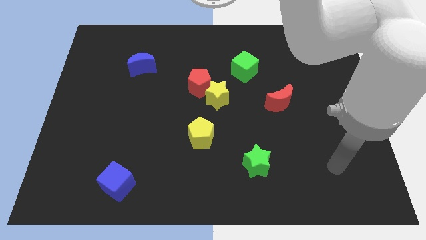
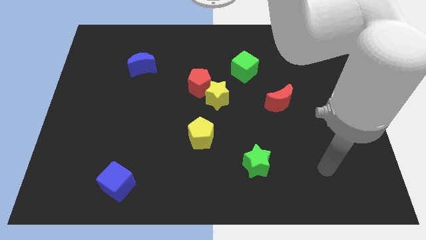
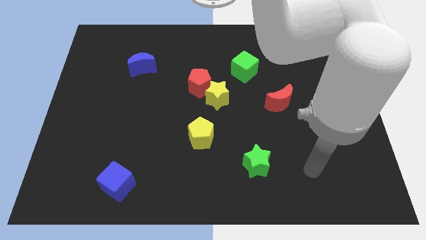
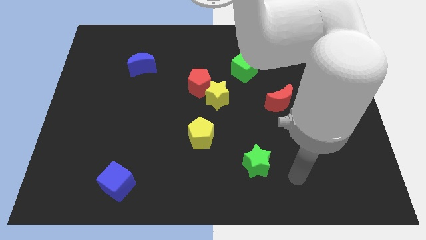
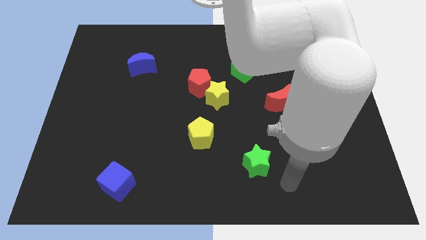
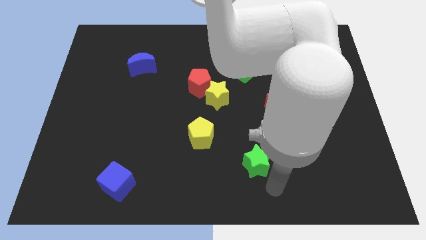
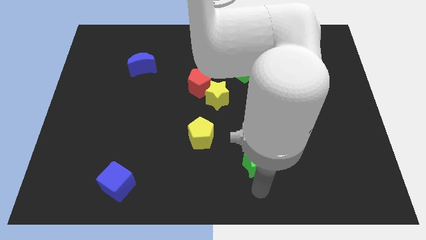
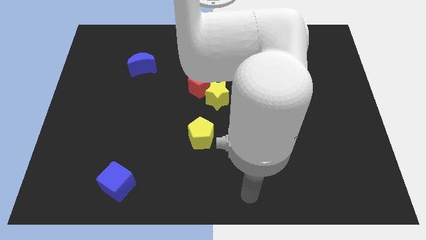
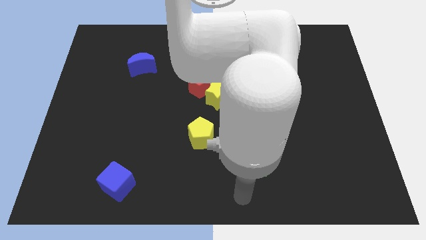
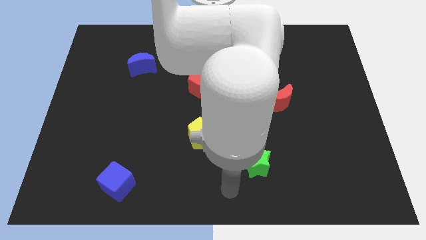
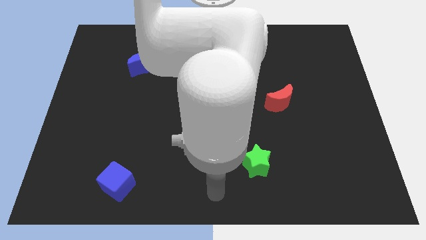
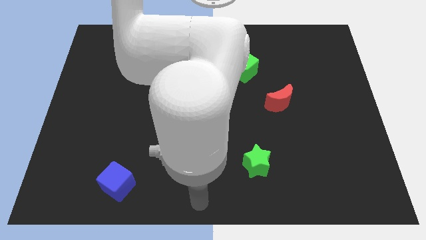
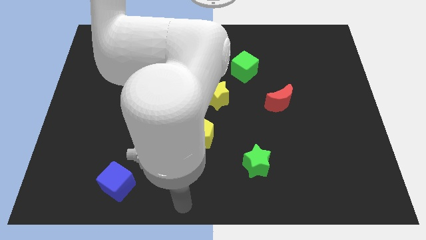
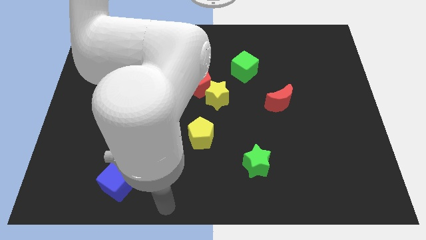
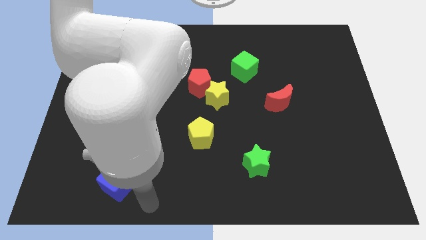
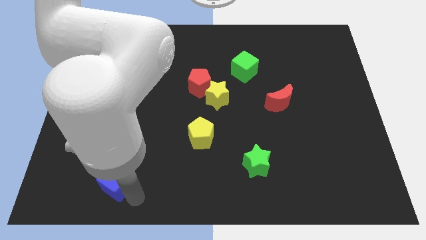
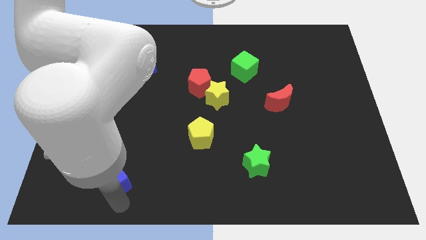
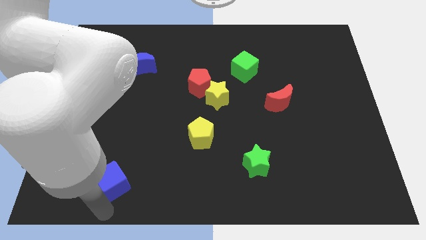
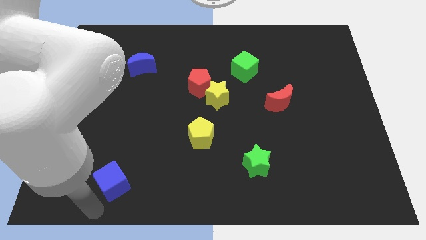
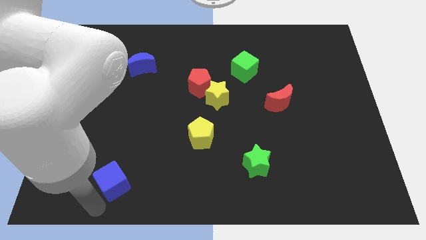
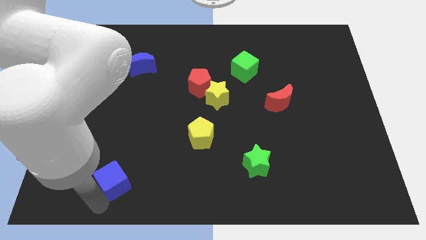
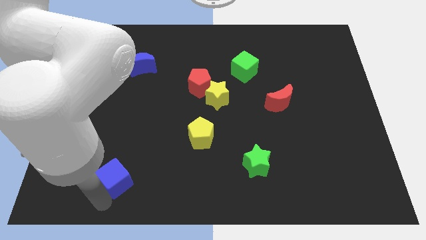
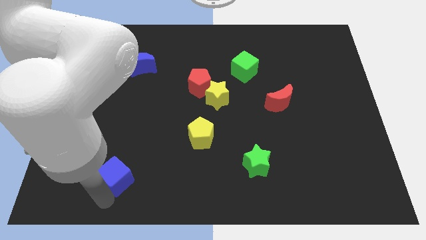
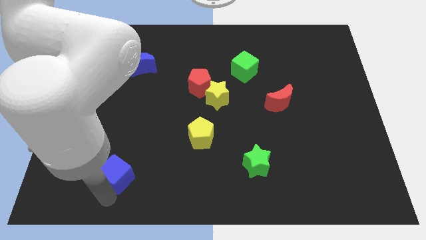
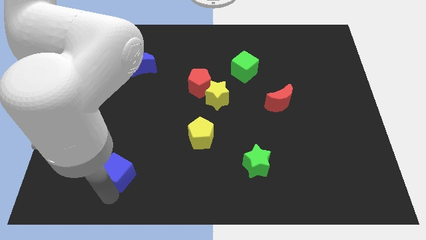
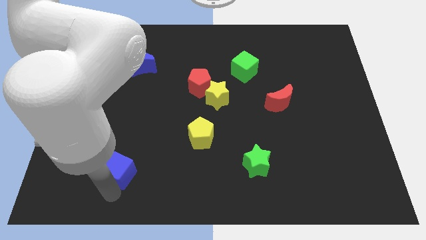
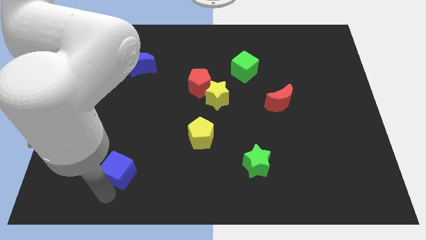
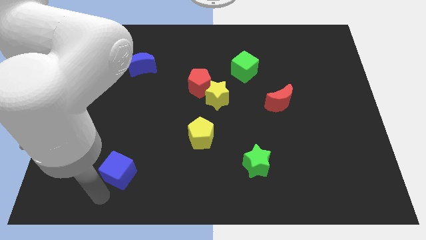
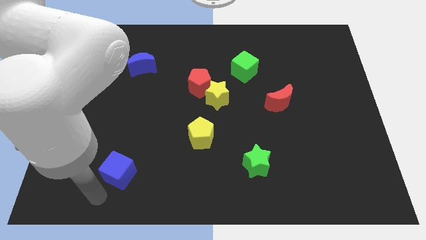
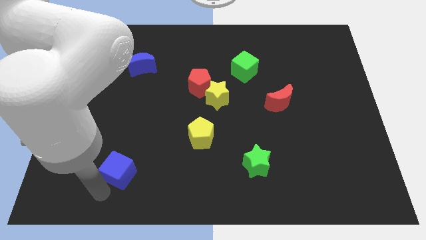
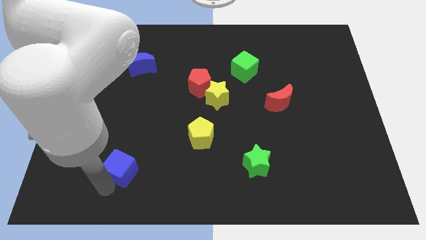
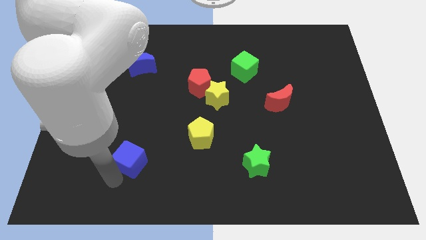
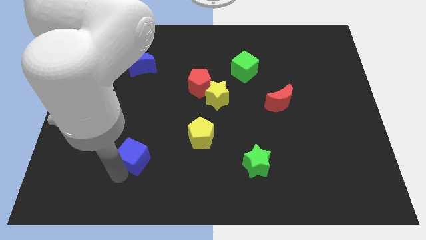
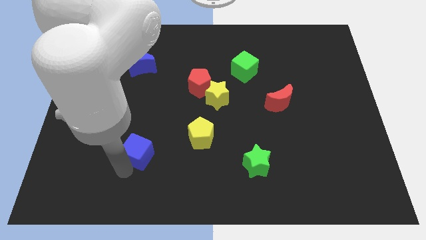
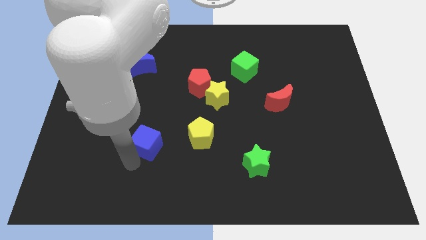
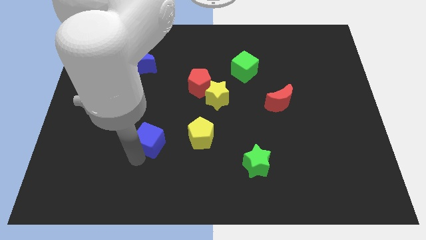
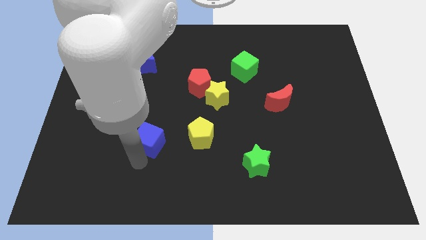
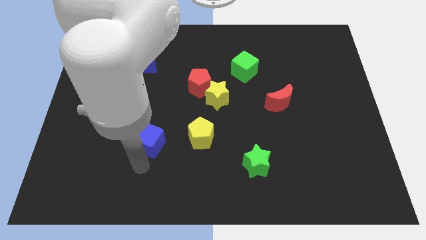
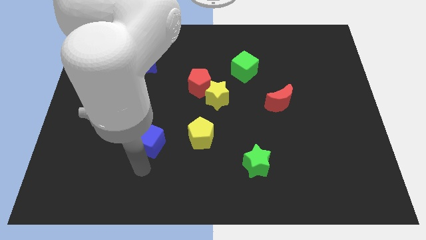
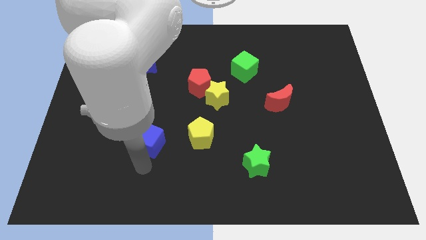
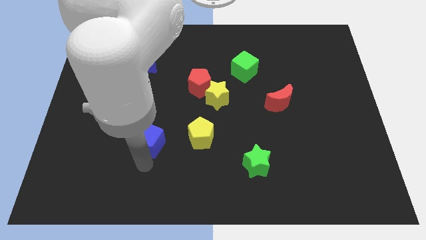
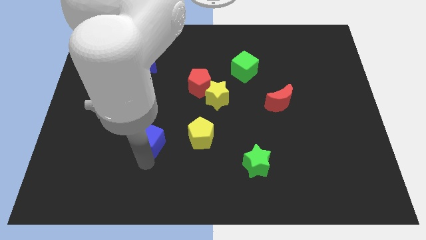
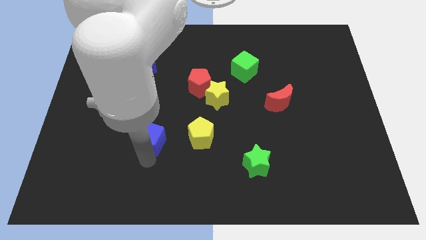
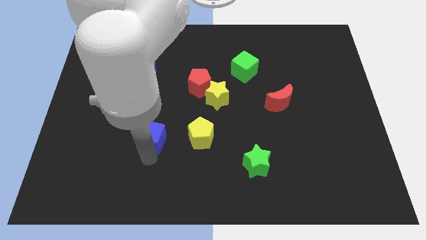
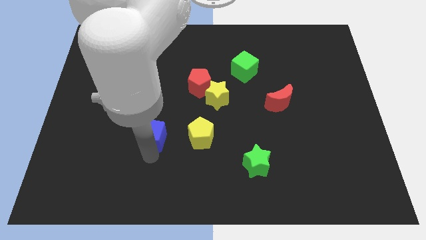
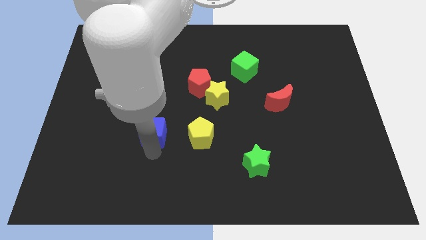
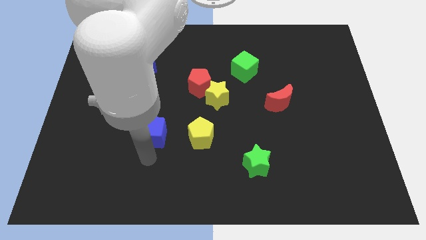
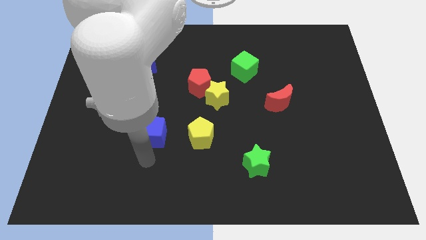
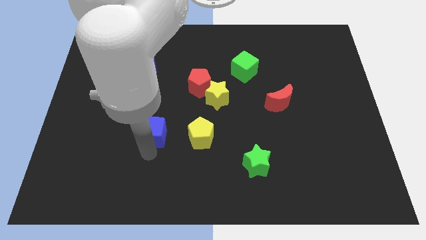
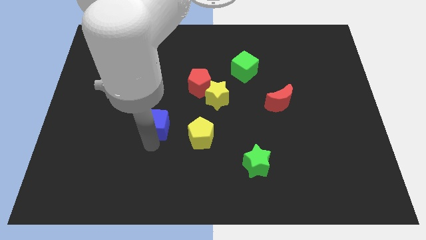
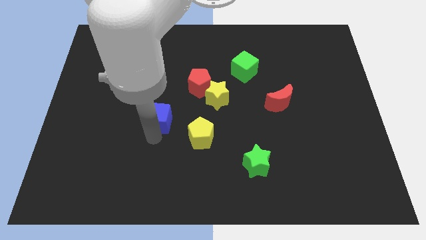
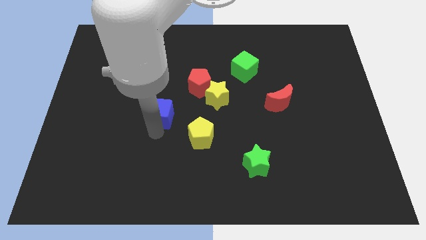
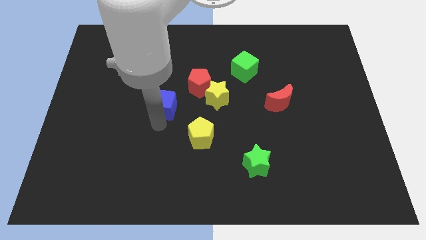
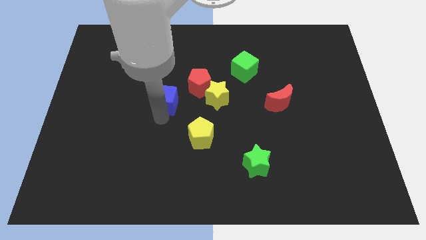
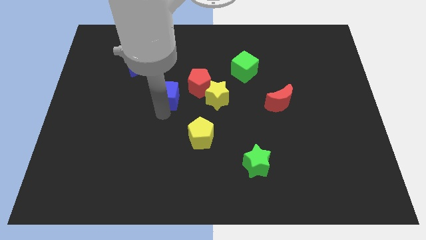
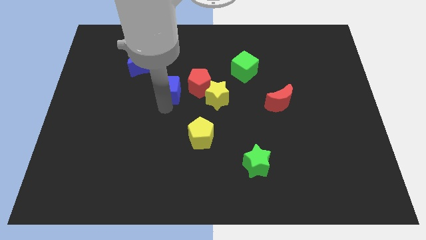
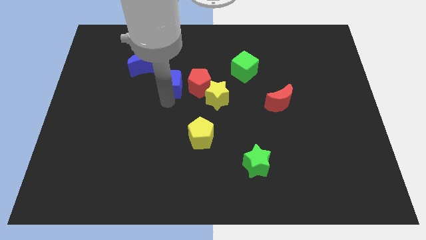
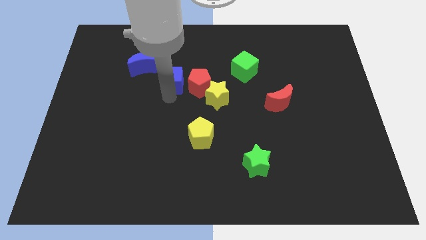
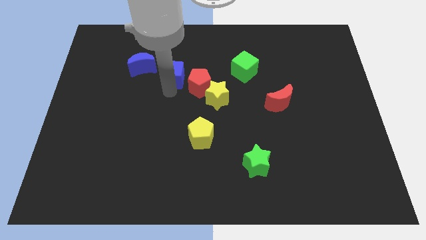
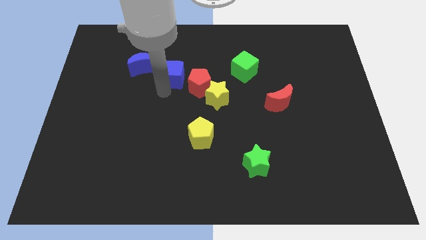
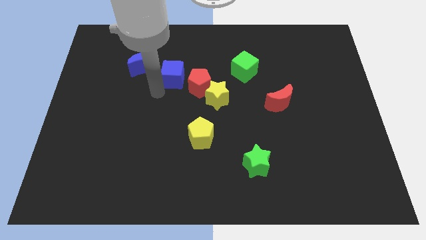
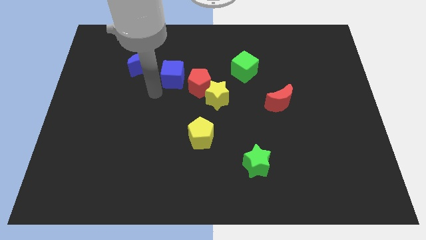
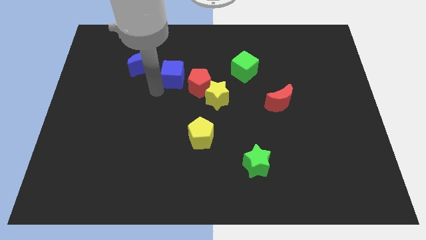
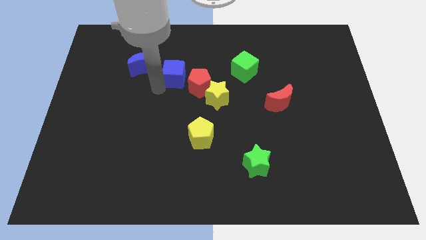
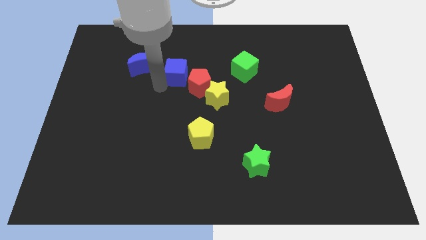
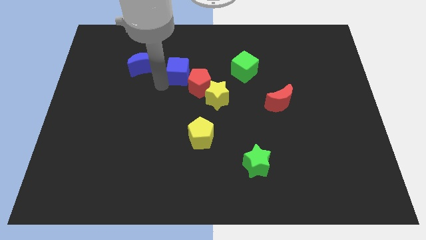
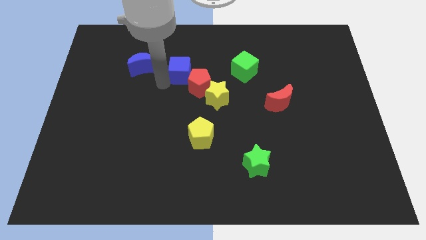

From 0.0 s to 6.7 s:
put the blue cube just left of the green cube

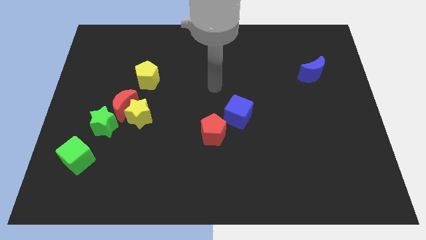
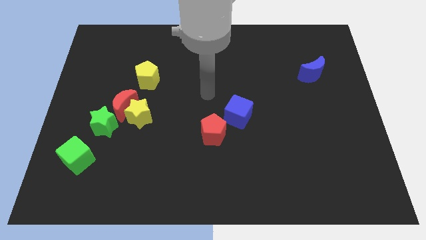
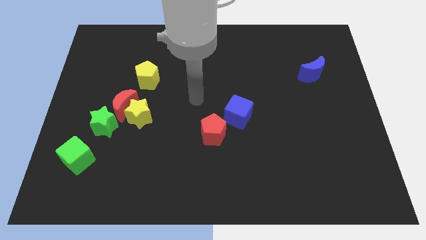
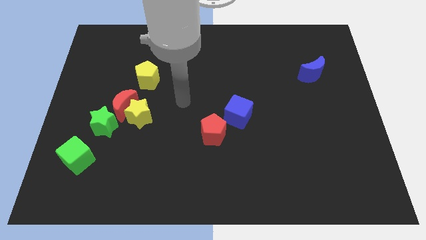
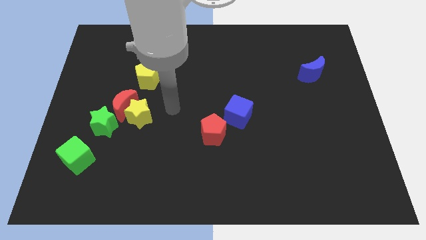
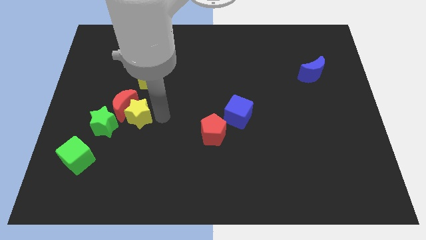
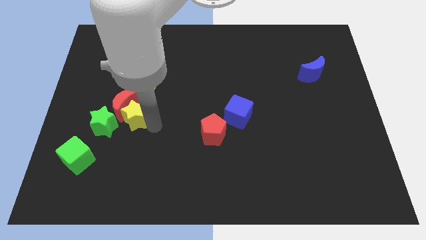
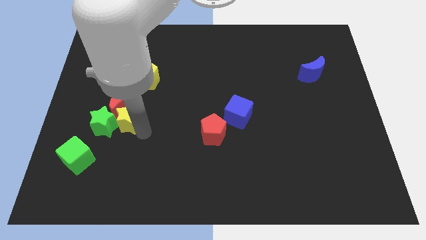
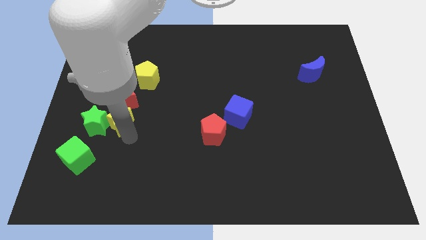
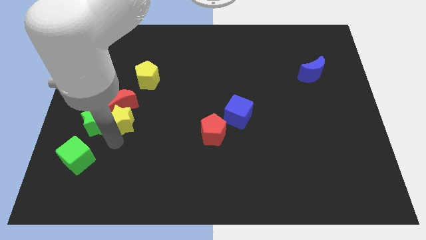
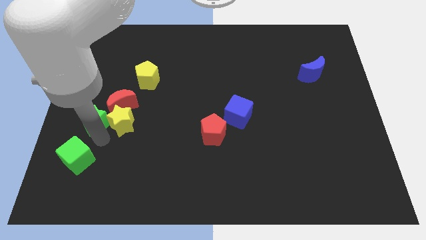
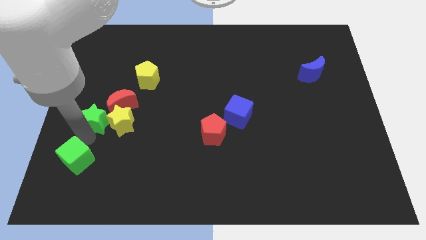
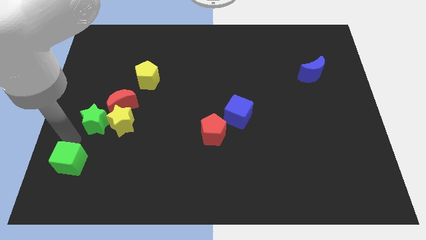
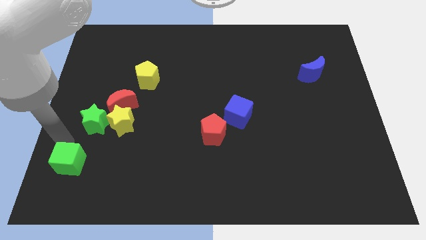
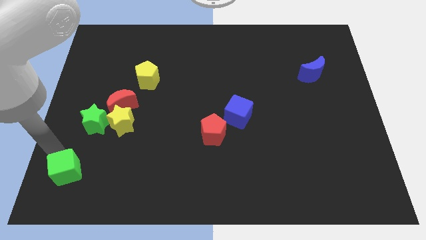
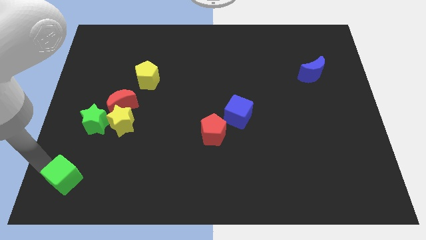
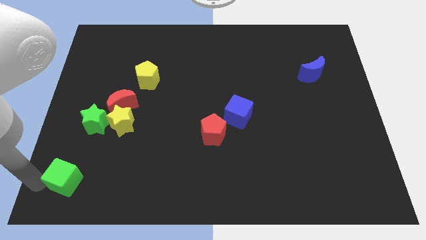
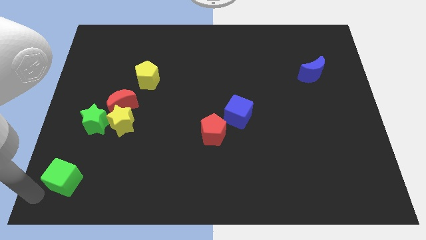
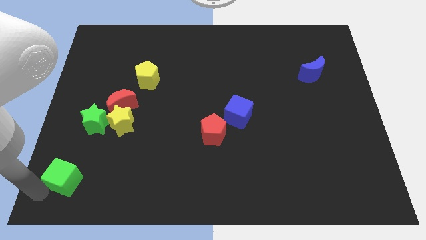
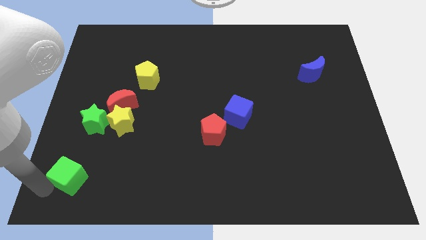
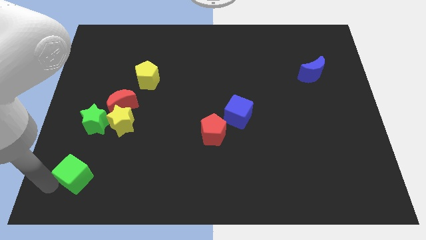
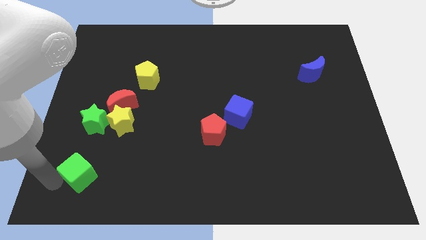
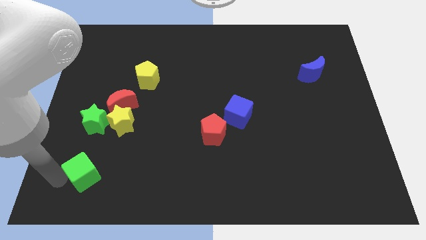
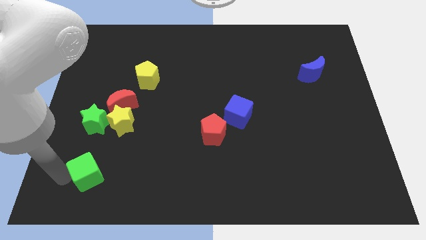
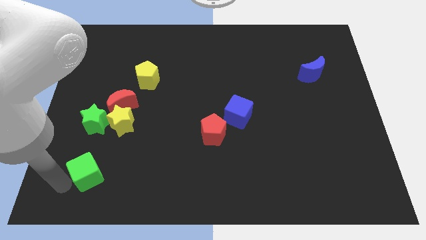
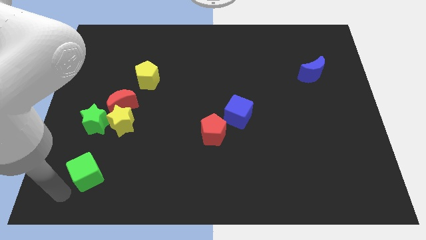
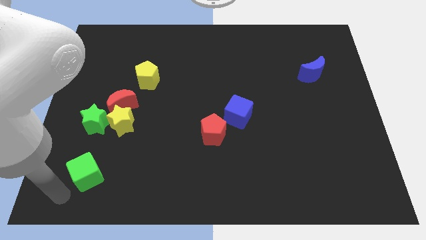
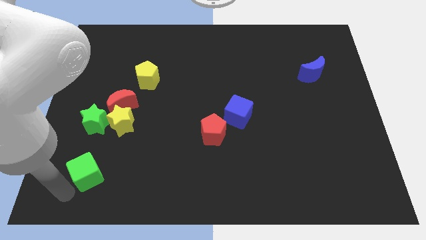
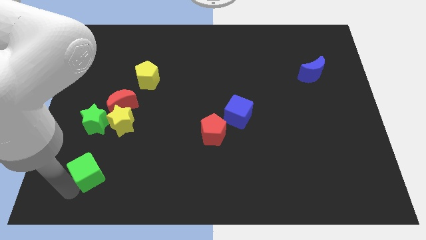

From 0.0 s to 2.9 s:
move the green cube to the bottom side of the yellow star
